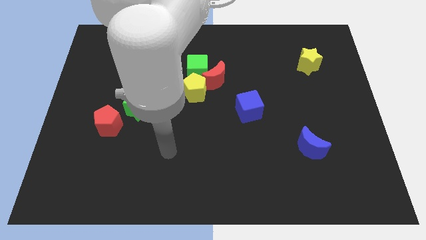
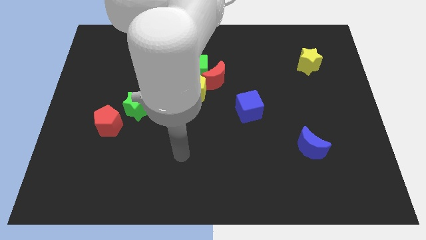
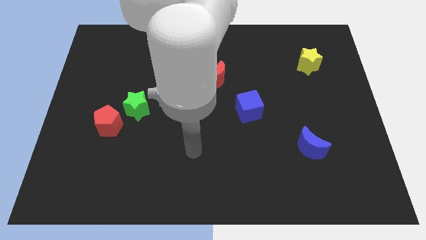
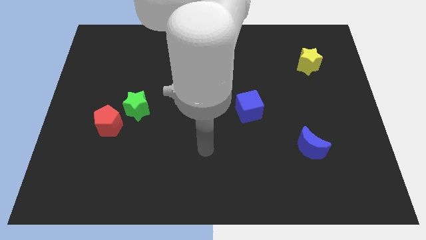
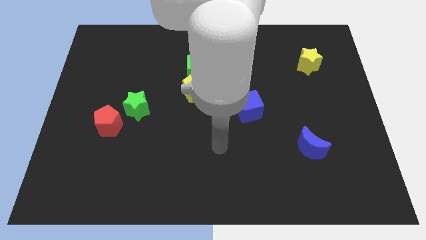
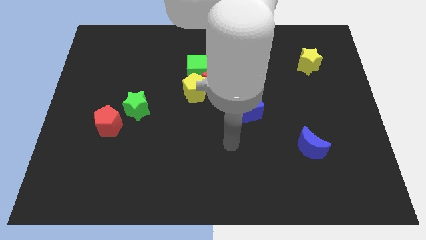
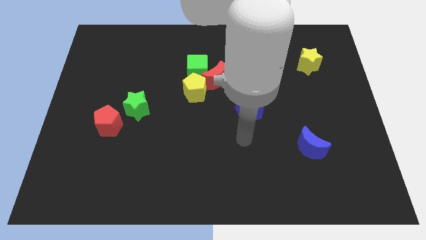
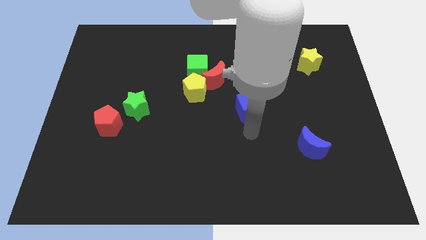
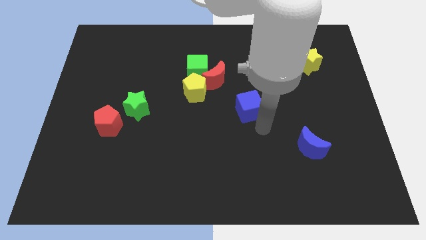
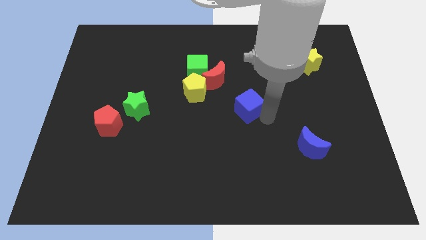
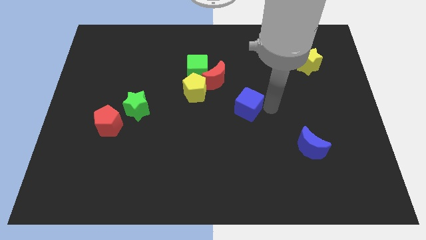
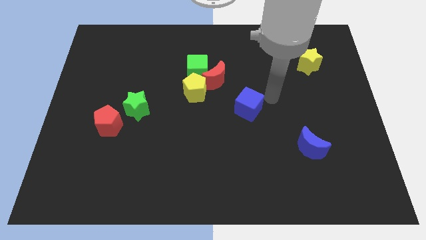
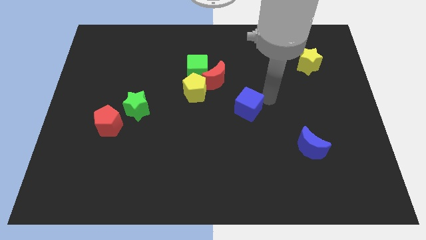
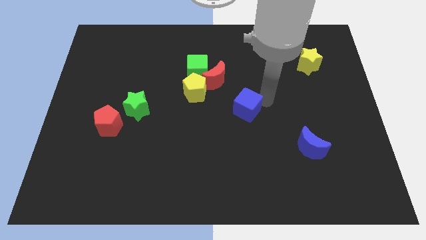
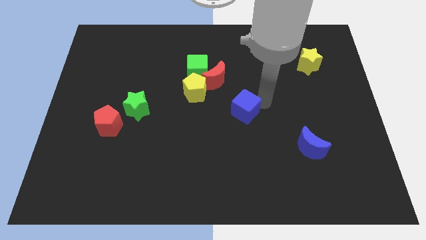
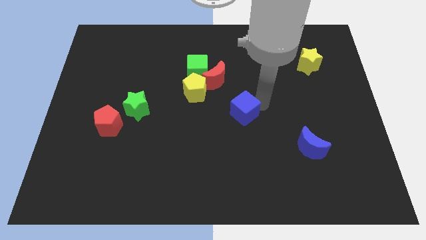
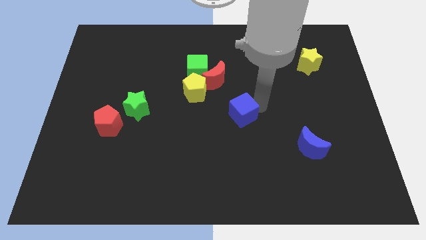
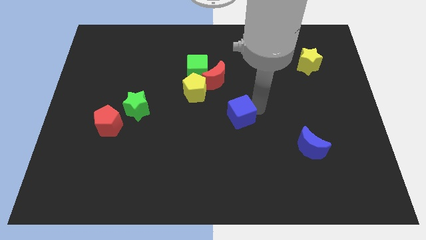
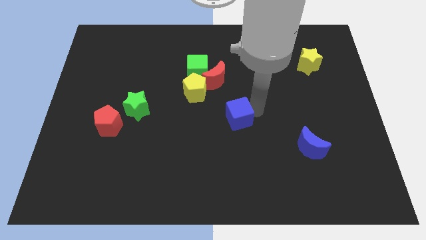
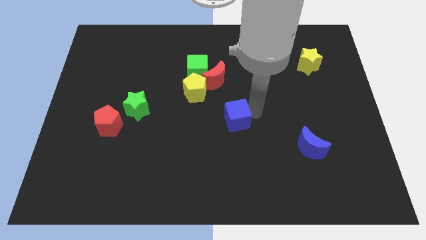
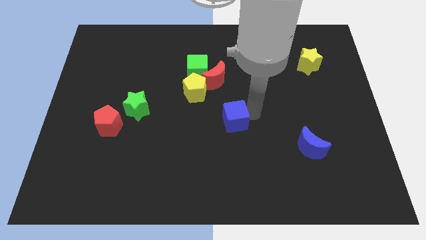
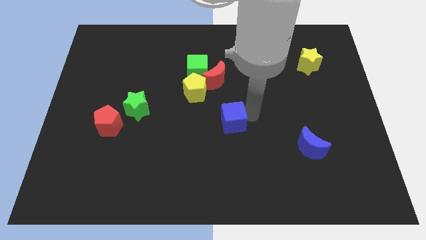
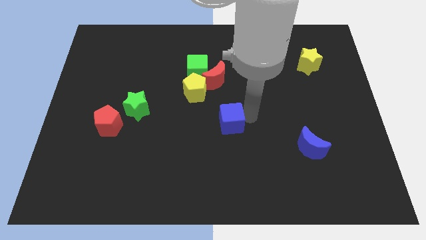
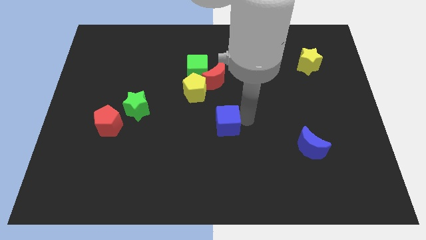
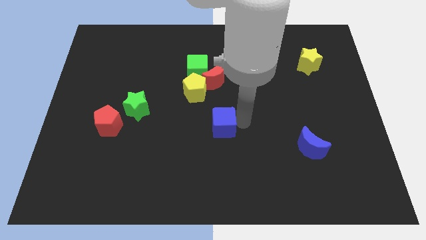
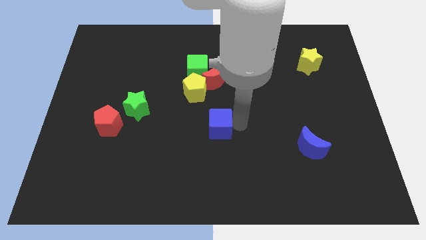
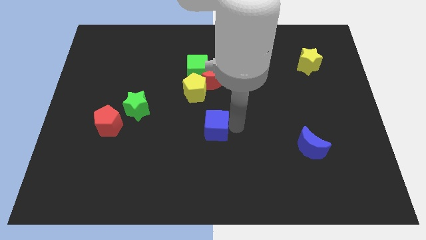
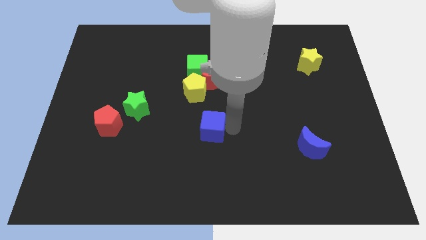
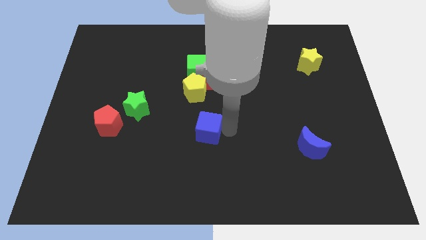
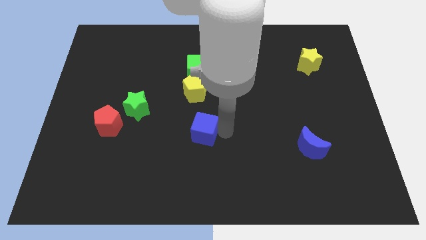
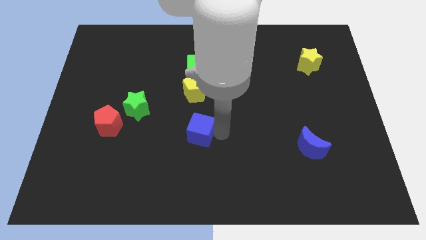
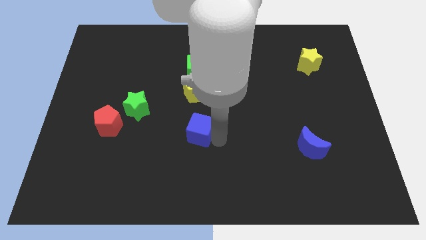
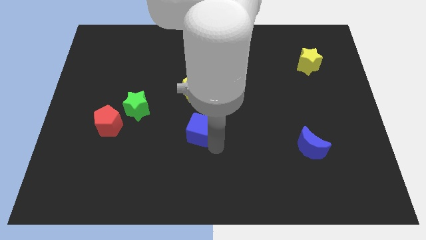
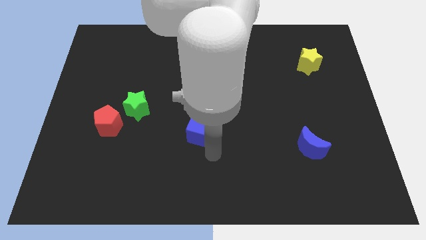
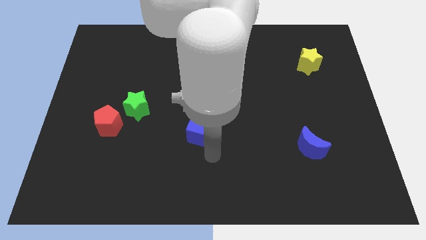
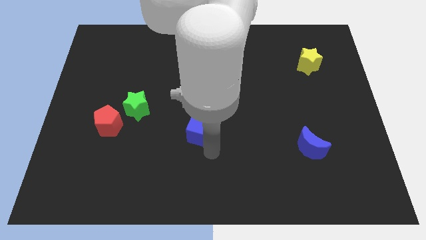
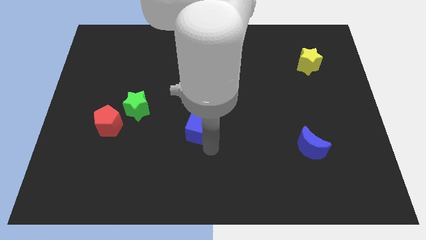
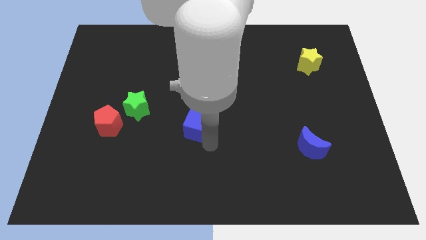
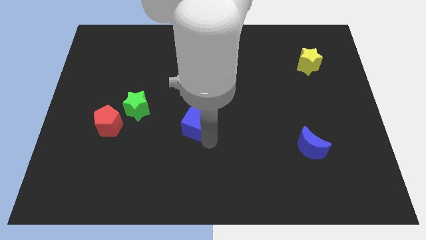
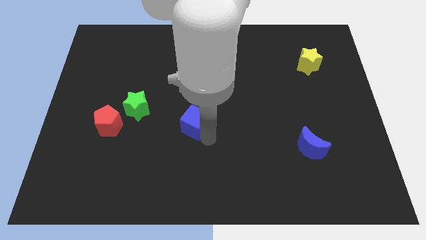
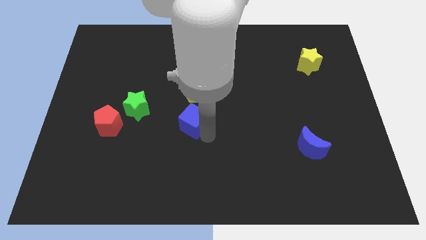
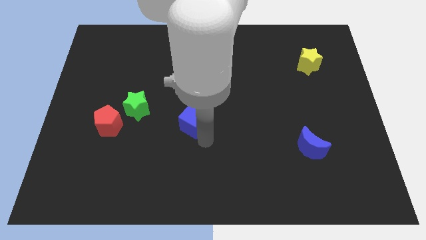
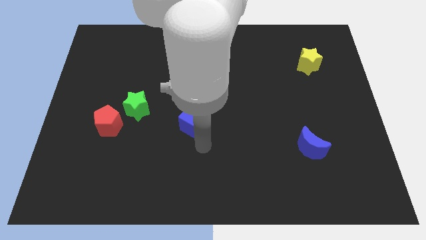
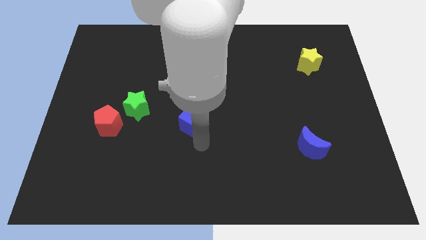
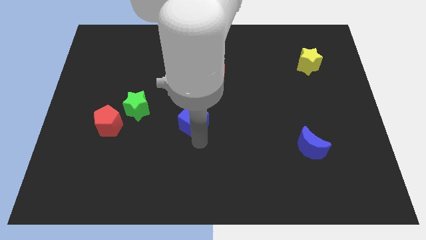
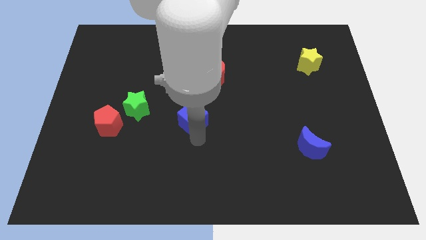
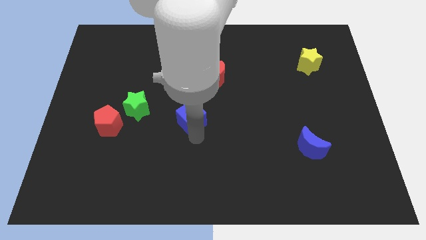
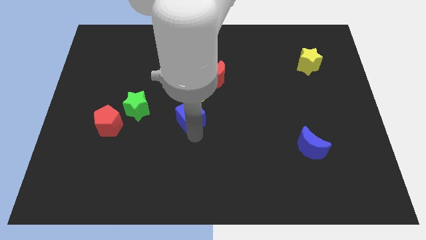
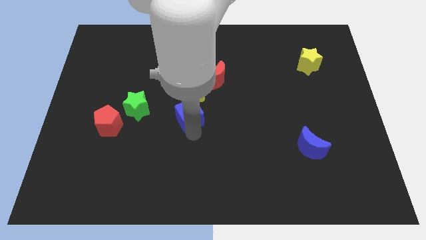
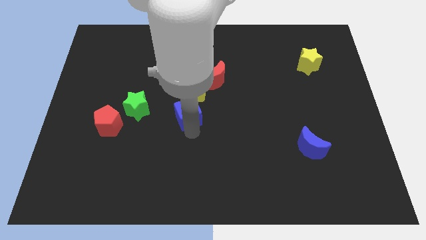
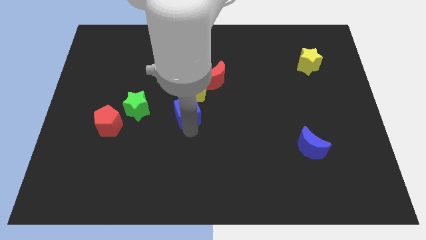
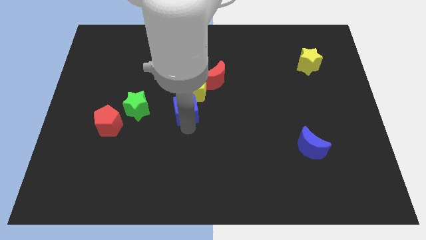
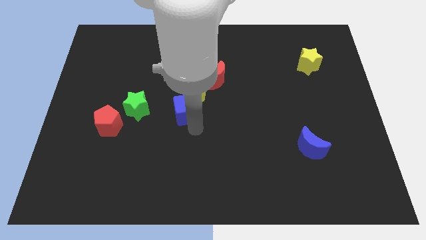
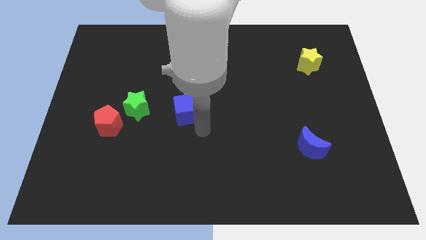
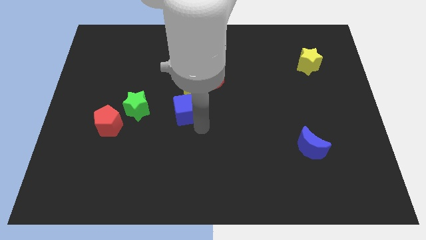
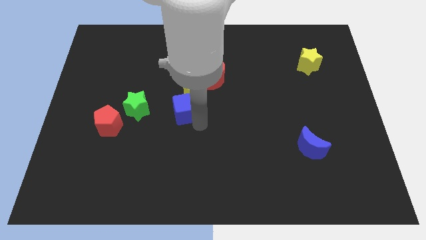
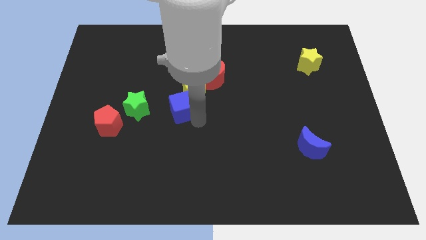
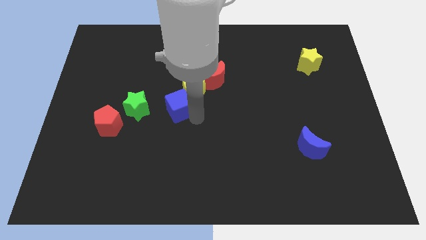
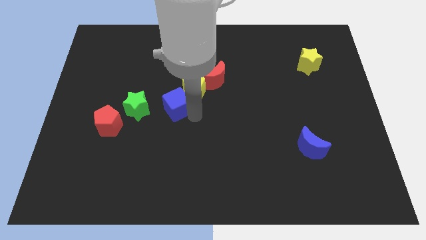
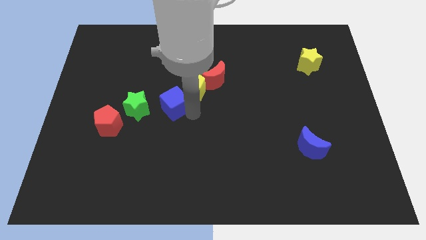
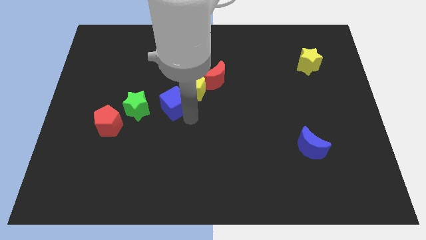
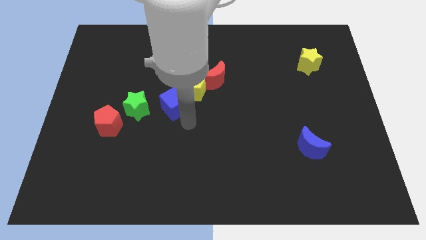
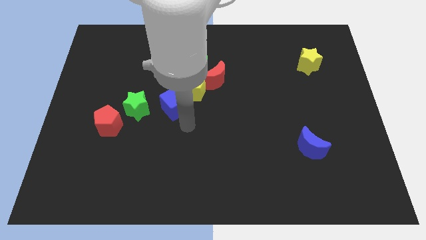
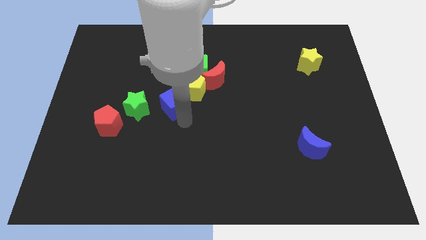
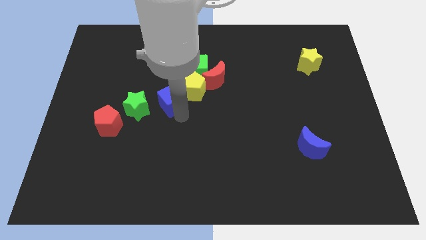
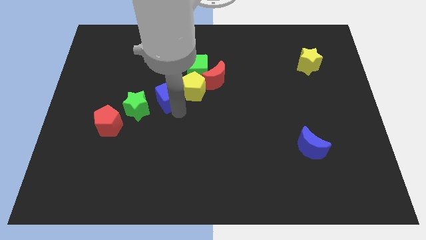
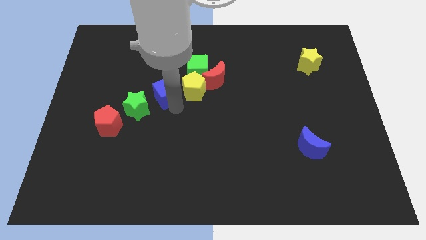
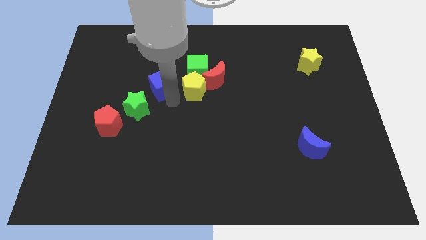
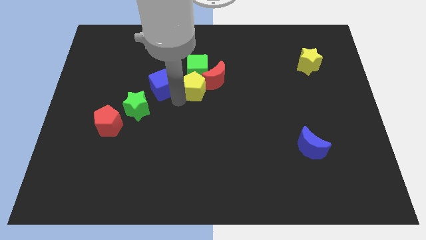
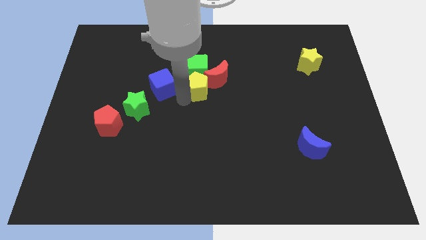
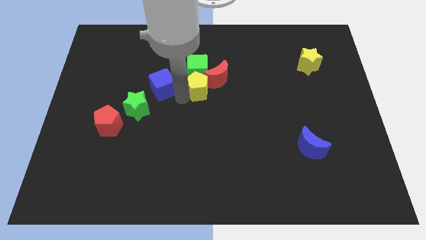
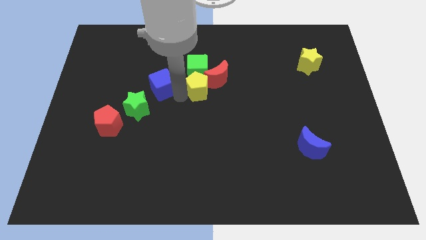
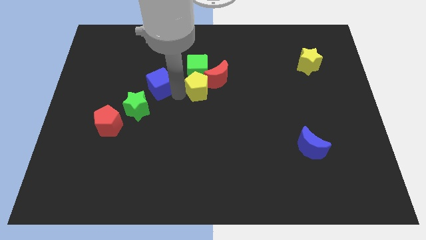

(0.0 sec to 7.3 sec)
push the blue cube above the green star

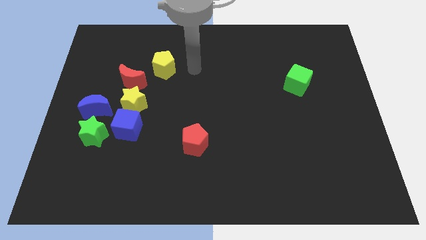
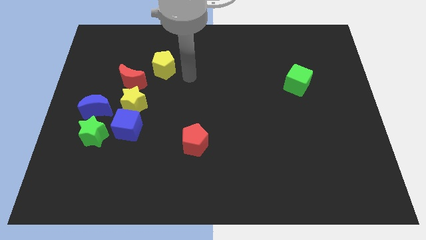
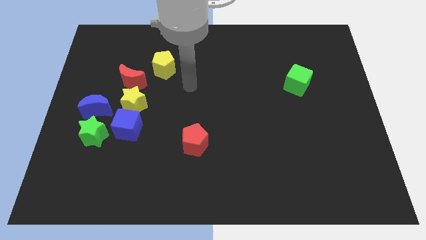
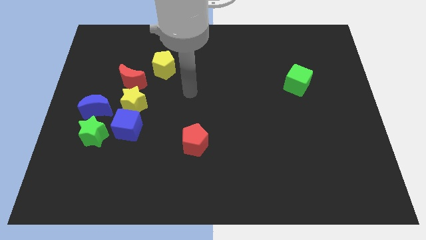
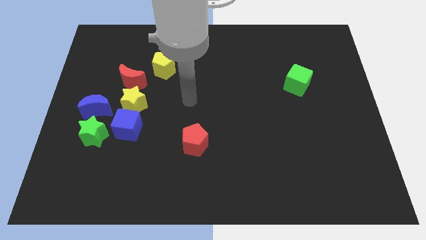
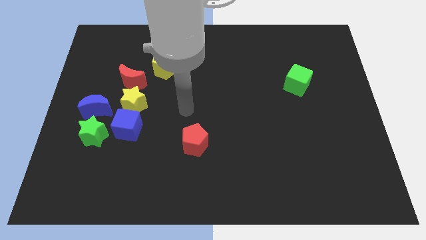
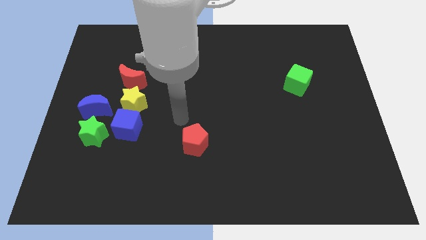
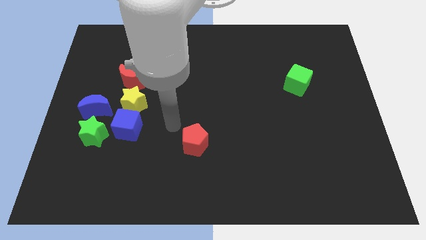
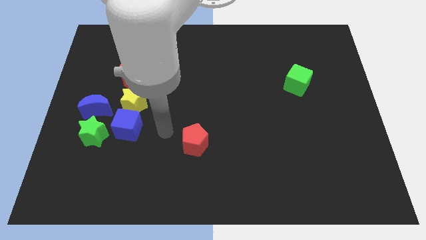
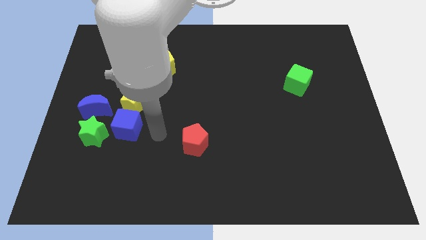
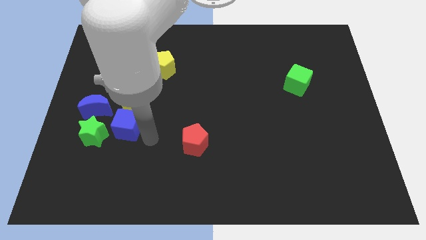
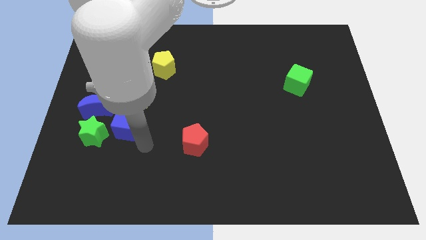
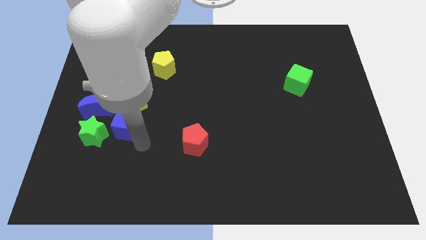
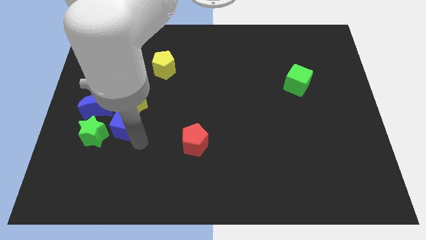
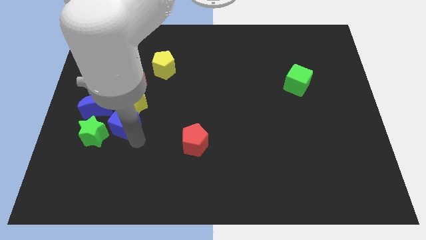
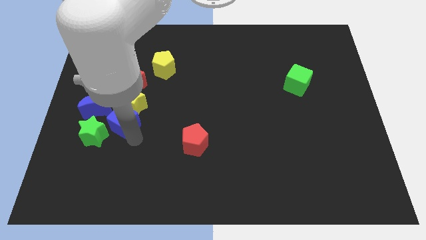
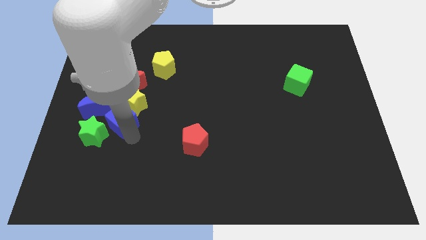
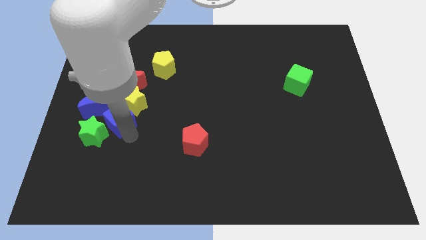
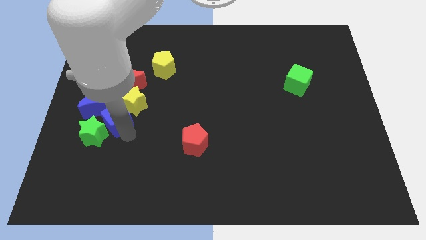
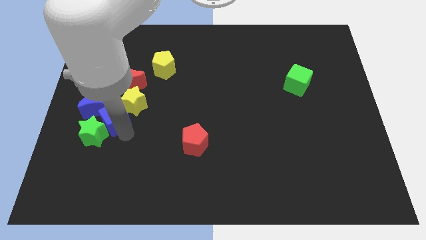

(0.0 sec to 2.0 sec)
move the blue cube to the top side of the green star
